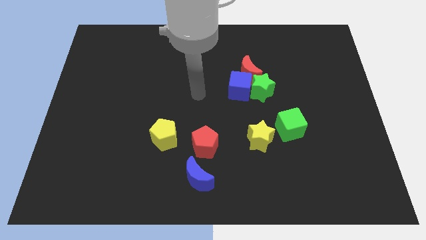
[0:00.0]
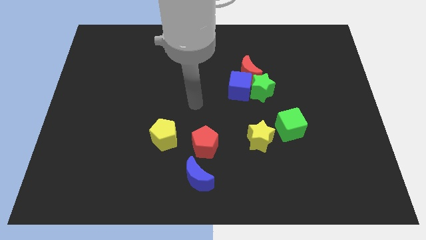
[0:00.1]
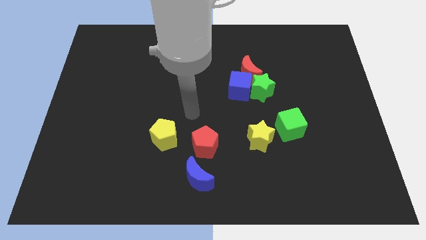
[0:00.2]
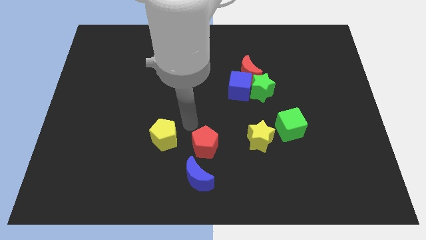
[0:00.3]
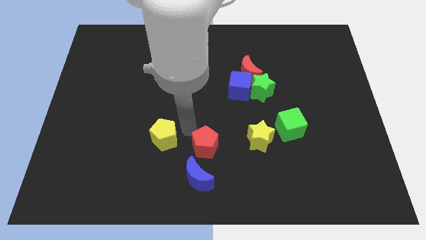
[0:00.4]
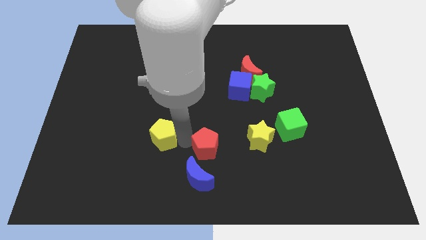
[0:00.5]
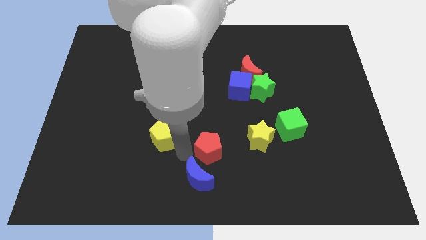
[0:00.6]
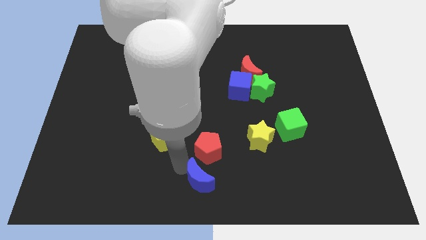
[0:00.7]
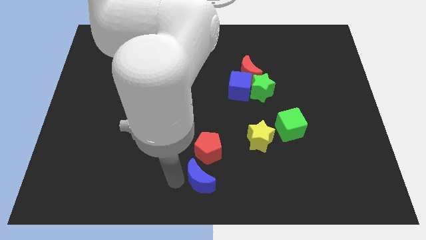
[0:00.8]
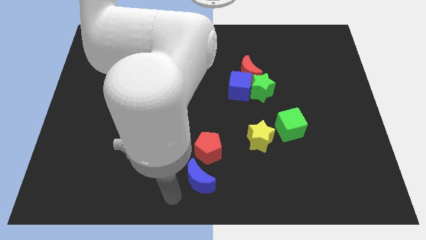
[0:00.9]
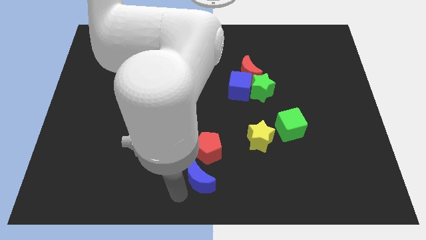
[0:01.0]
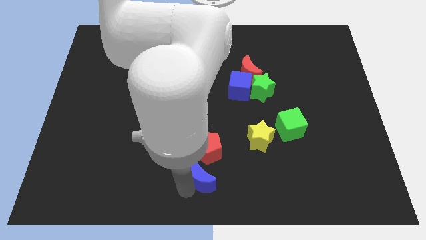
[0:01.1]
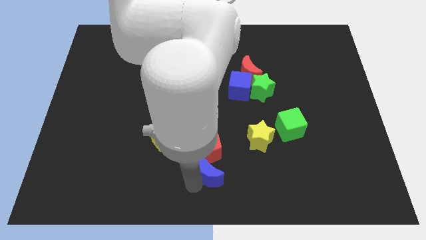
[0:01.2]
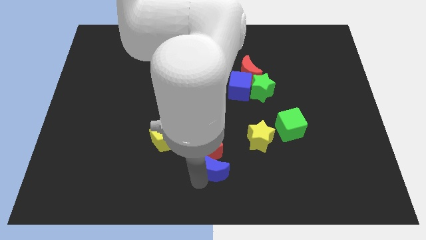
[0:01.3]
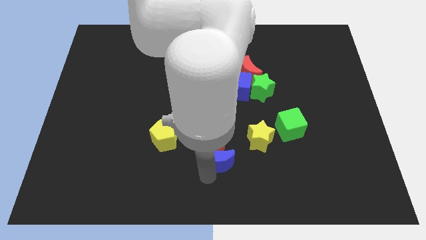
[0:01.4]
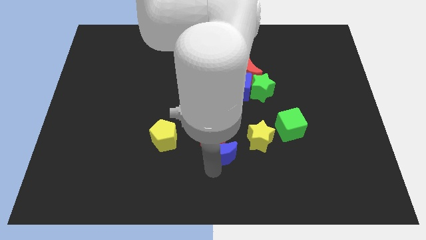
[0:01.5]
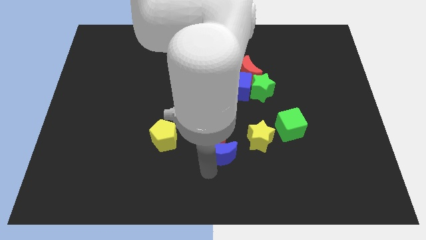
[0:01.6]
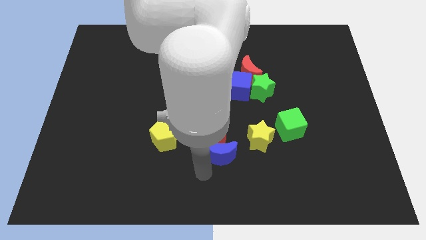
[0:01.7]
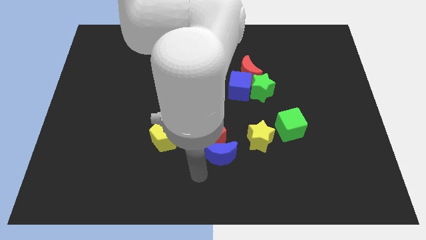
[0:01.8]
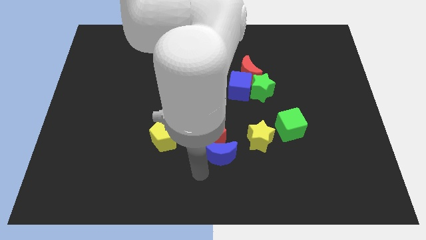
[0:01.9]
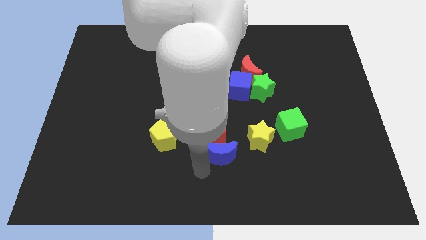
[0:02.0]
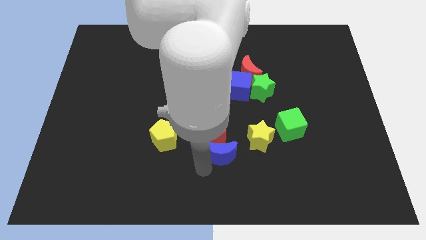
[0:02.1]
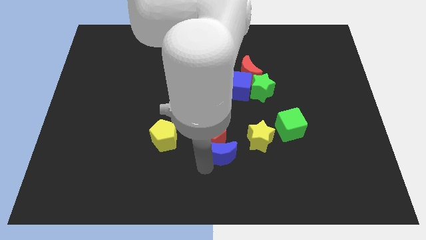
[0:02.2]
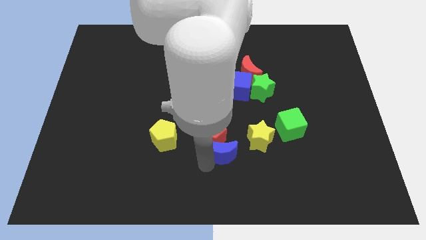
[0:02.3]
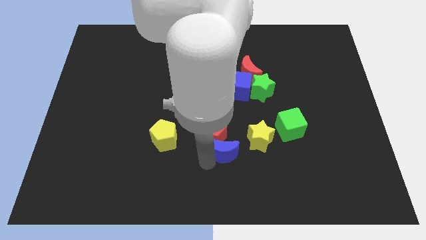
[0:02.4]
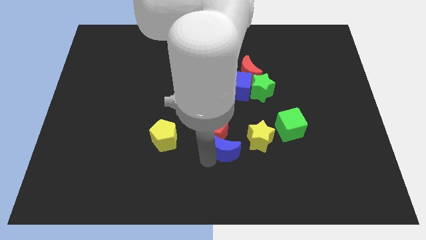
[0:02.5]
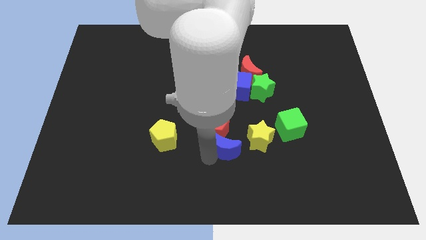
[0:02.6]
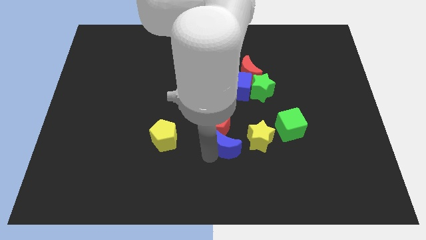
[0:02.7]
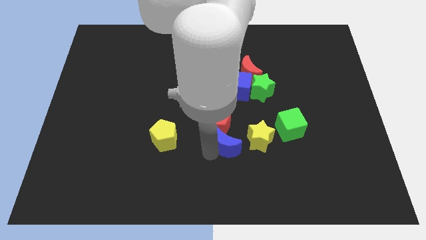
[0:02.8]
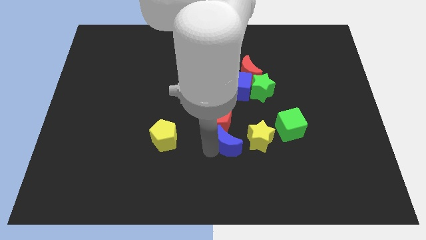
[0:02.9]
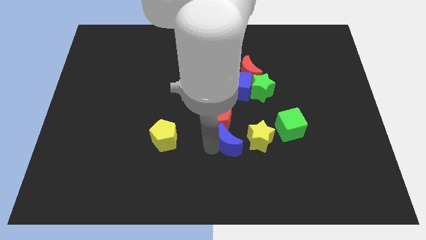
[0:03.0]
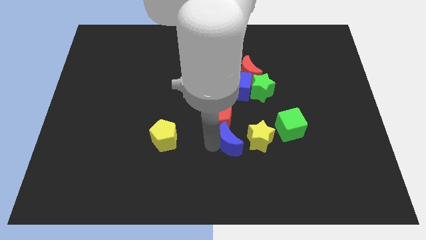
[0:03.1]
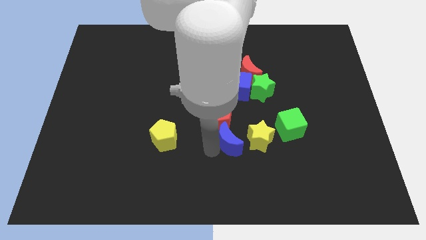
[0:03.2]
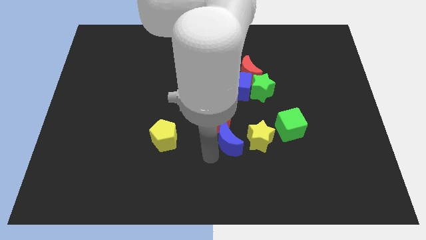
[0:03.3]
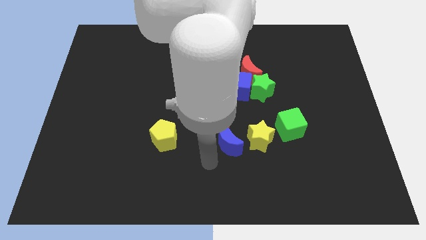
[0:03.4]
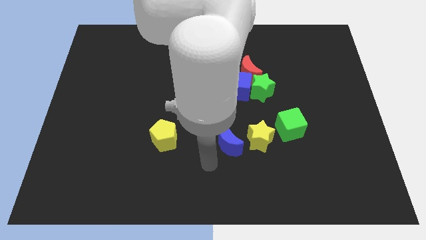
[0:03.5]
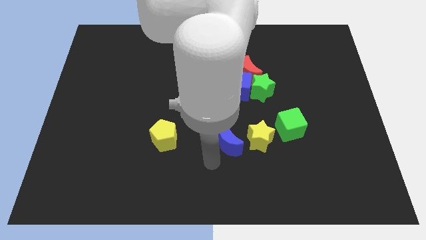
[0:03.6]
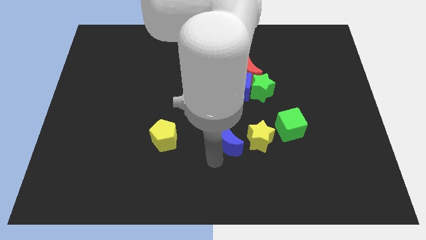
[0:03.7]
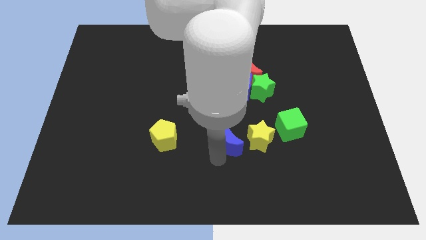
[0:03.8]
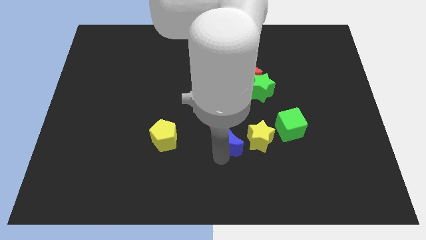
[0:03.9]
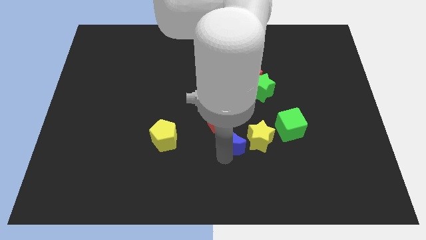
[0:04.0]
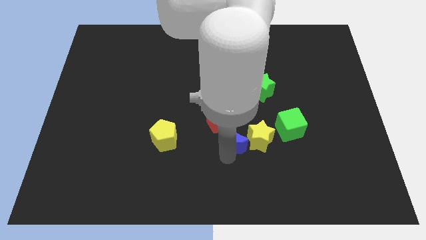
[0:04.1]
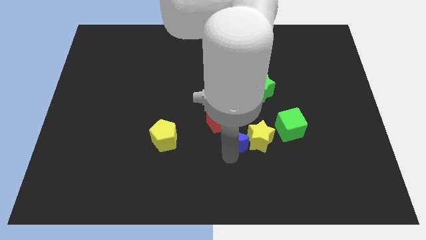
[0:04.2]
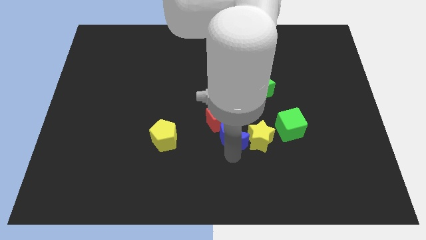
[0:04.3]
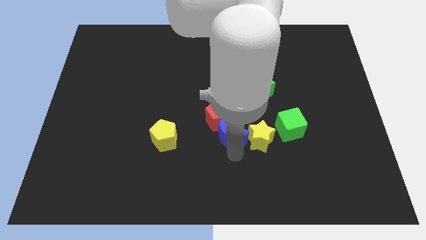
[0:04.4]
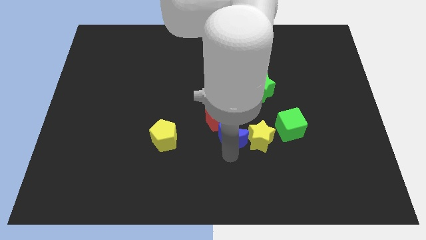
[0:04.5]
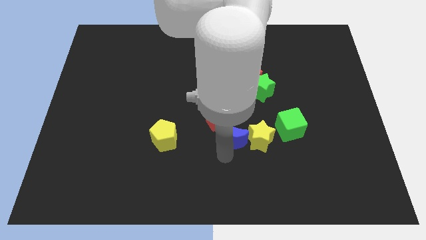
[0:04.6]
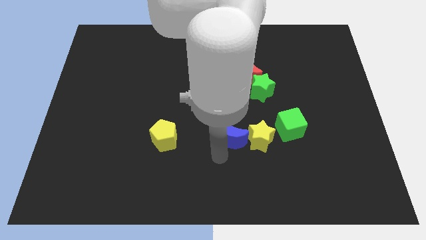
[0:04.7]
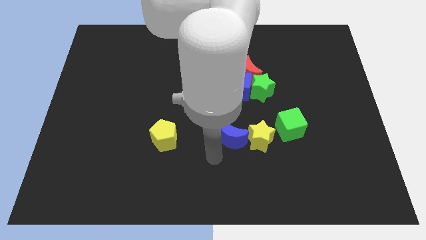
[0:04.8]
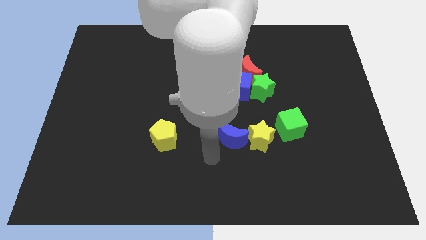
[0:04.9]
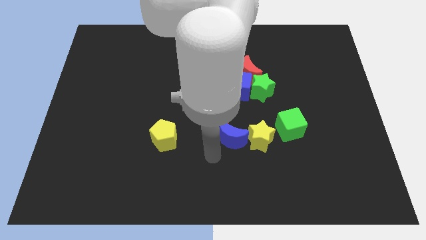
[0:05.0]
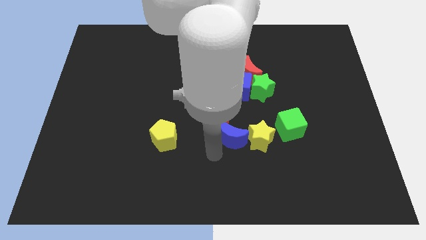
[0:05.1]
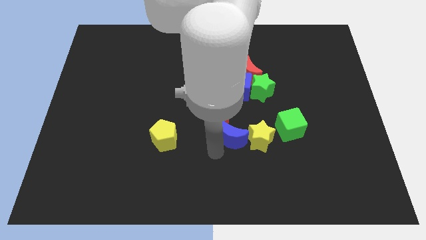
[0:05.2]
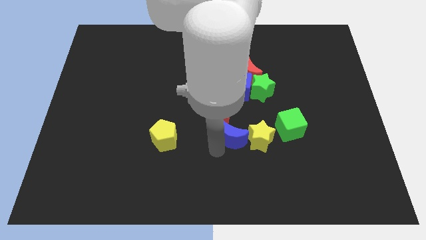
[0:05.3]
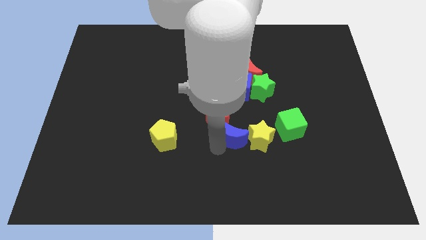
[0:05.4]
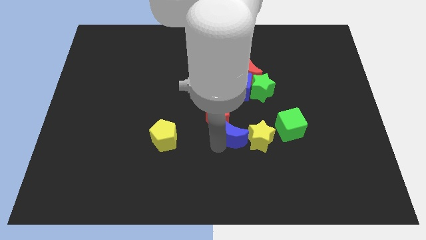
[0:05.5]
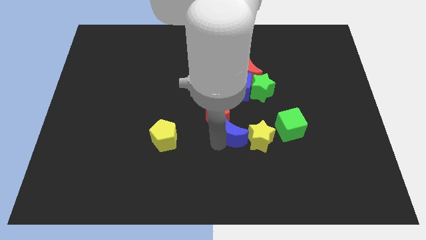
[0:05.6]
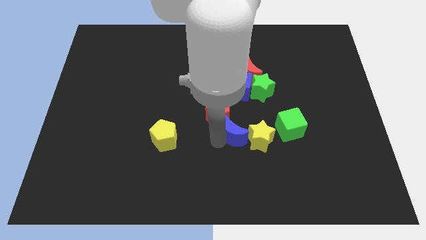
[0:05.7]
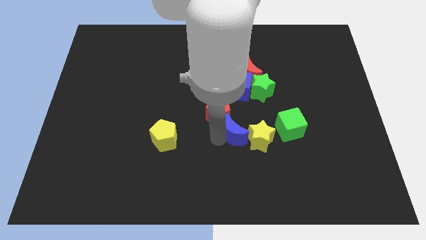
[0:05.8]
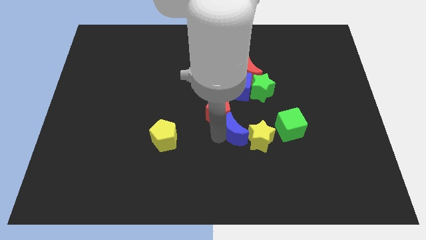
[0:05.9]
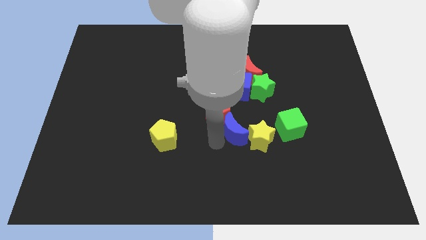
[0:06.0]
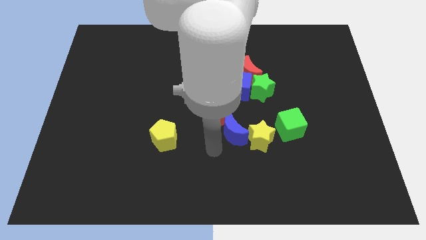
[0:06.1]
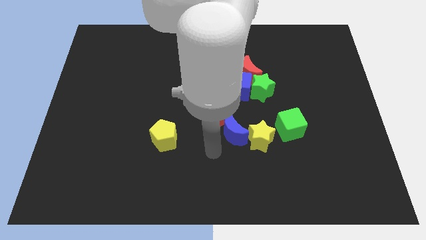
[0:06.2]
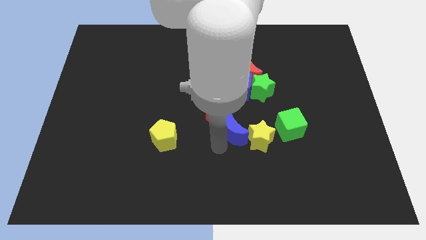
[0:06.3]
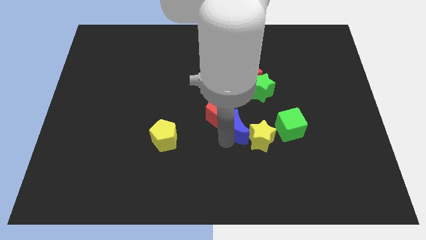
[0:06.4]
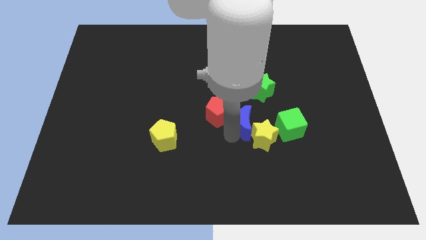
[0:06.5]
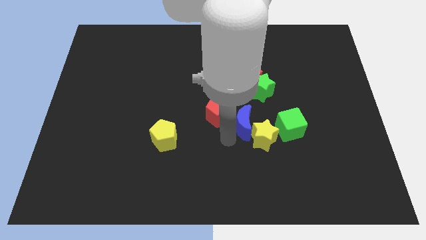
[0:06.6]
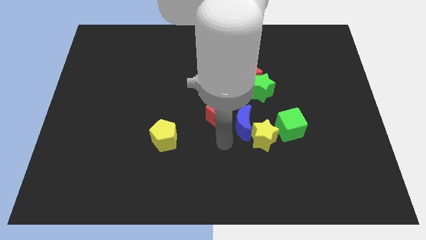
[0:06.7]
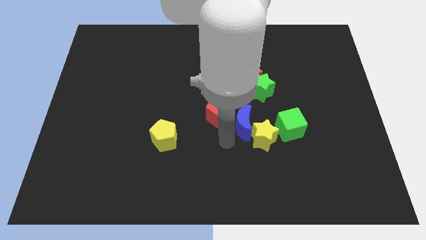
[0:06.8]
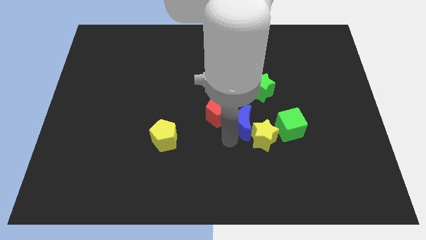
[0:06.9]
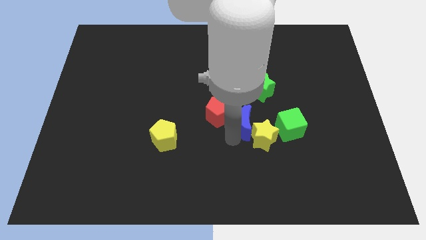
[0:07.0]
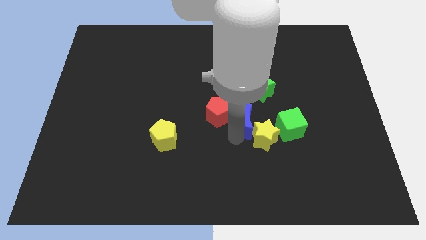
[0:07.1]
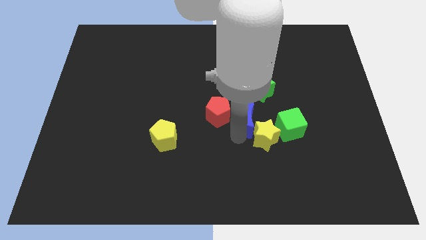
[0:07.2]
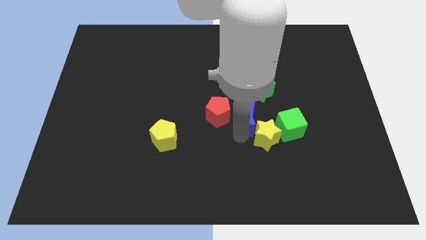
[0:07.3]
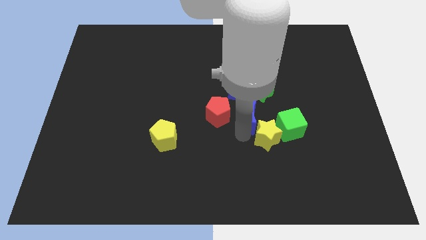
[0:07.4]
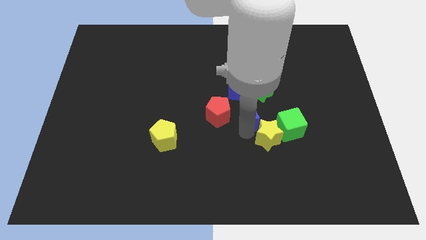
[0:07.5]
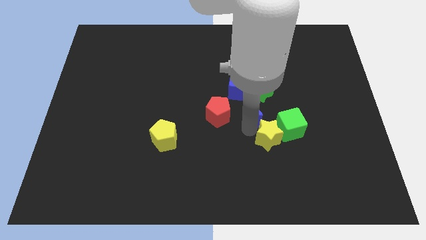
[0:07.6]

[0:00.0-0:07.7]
slide the blue moon upwards and right diagonally

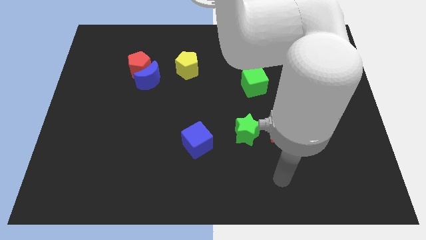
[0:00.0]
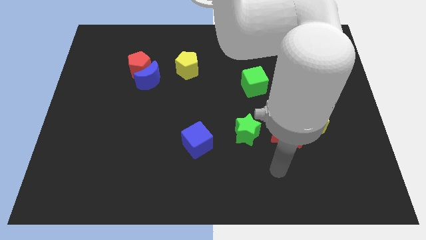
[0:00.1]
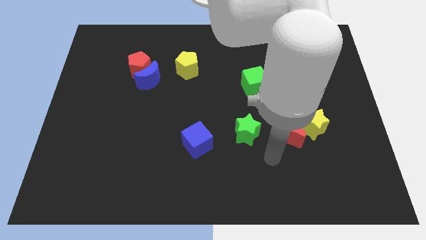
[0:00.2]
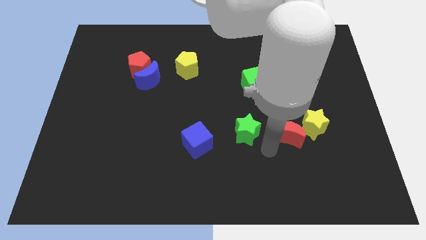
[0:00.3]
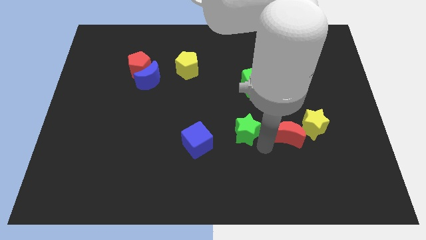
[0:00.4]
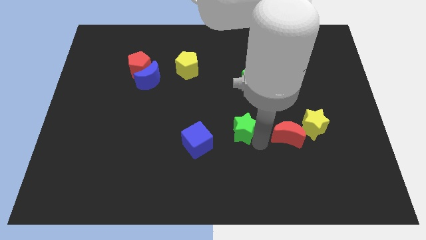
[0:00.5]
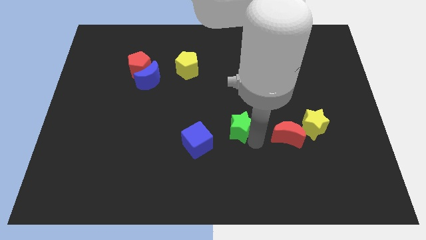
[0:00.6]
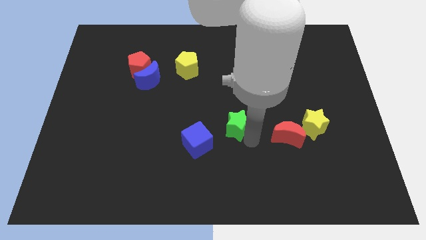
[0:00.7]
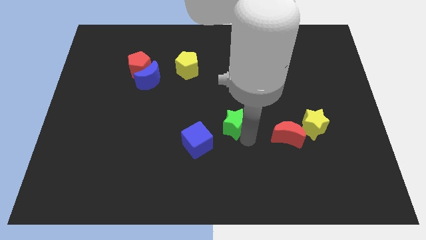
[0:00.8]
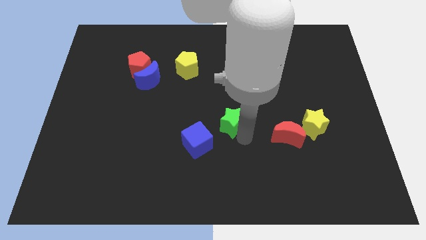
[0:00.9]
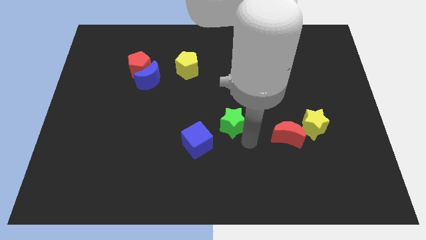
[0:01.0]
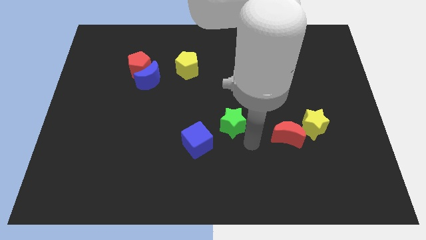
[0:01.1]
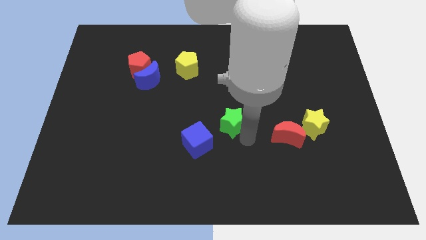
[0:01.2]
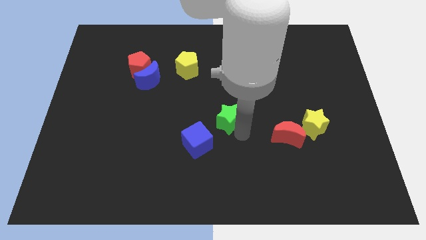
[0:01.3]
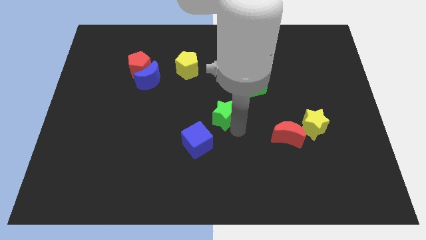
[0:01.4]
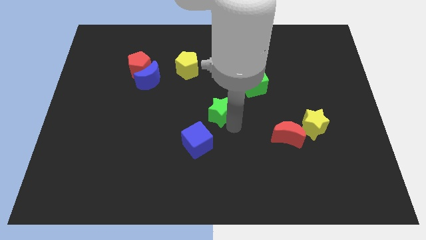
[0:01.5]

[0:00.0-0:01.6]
slightly slide the green star up and to the left
